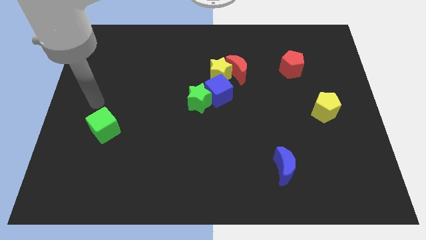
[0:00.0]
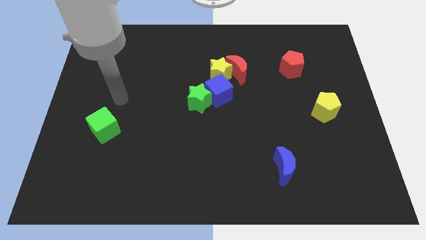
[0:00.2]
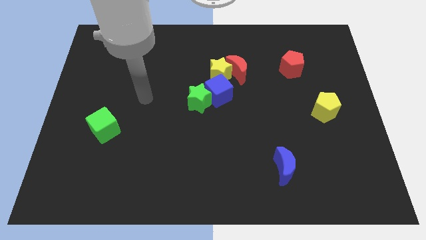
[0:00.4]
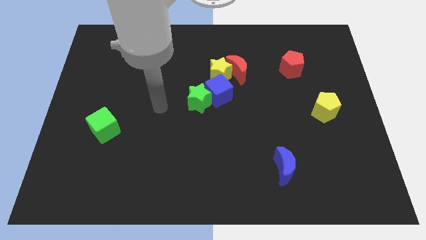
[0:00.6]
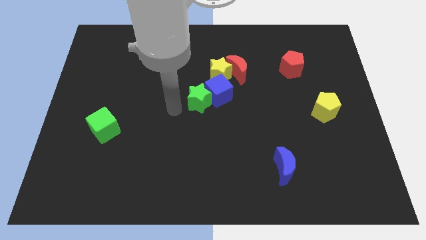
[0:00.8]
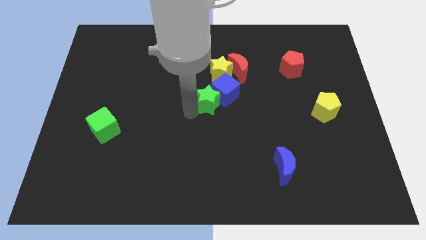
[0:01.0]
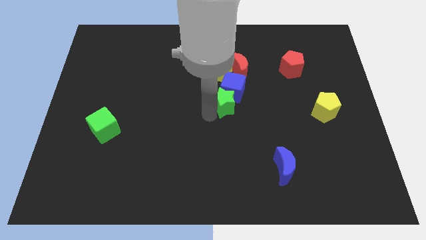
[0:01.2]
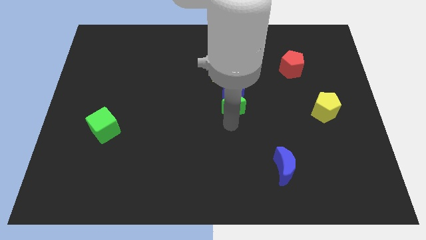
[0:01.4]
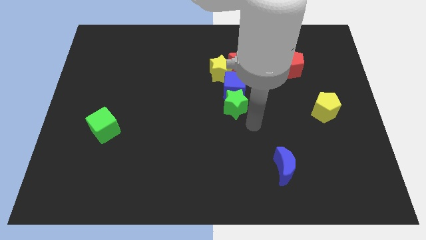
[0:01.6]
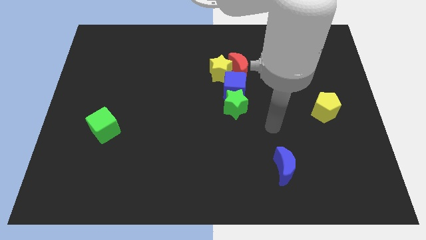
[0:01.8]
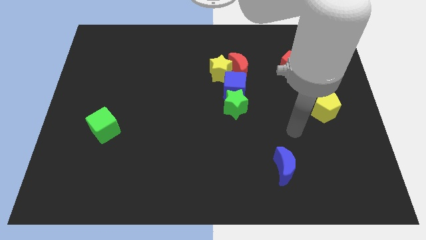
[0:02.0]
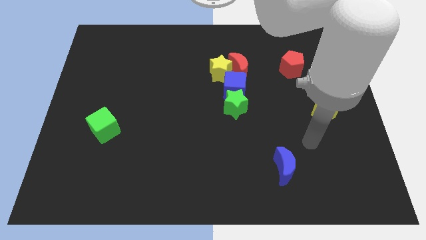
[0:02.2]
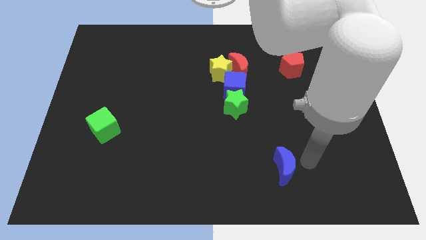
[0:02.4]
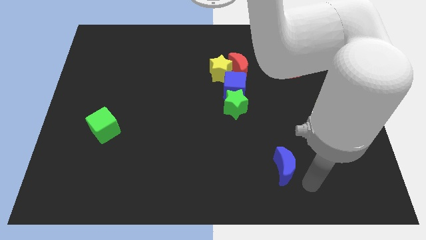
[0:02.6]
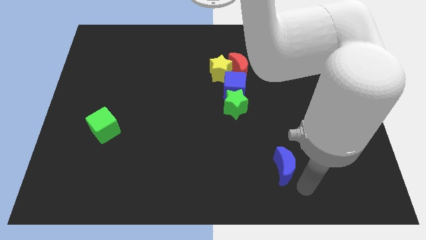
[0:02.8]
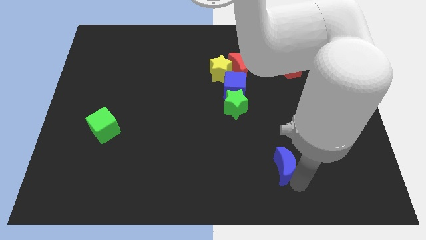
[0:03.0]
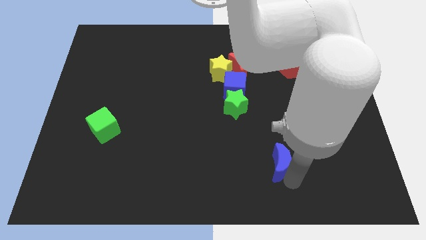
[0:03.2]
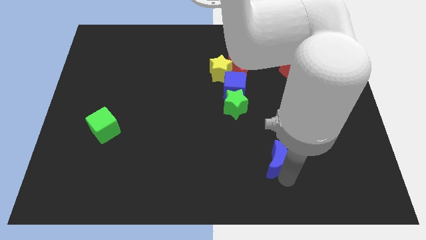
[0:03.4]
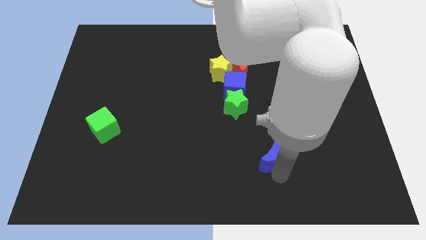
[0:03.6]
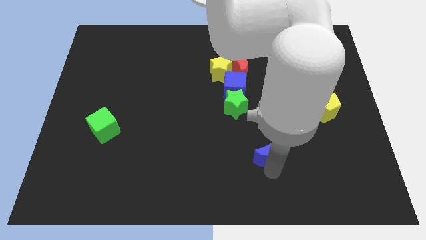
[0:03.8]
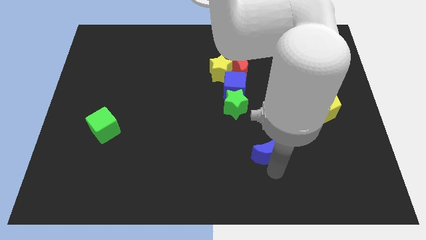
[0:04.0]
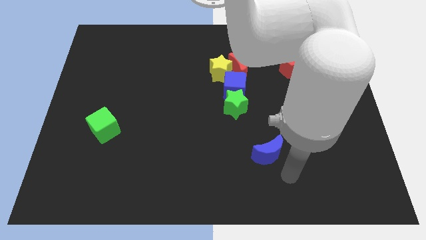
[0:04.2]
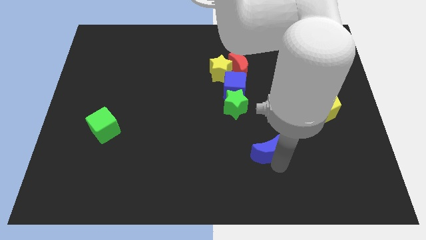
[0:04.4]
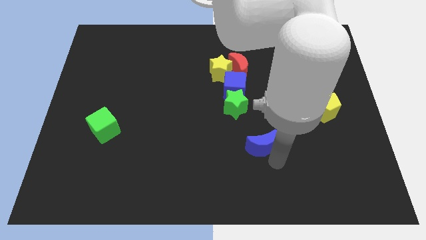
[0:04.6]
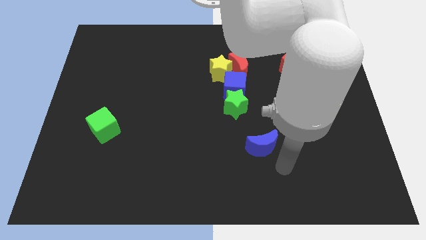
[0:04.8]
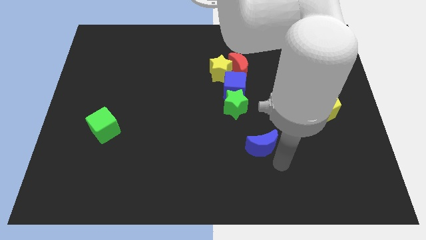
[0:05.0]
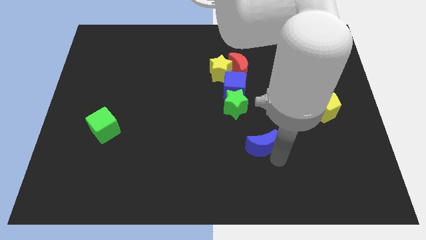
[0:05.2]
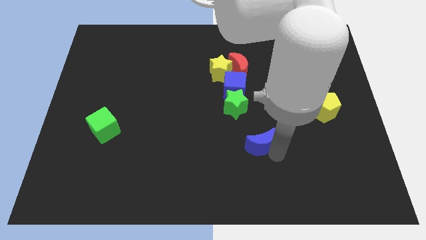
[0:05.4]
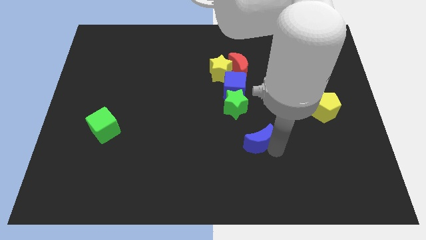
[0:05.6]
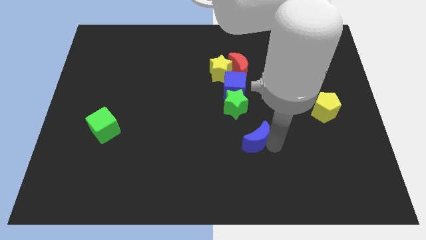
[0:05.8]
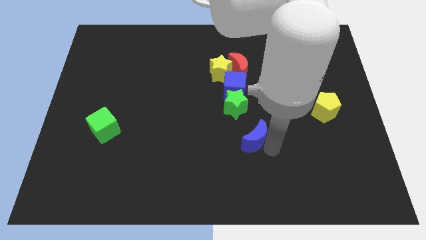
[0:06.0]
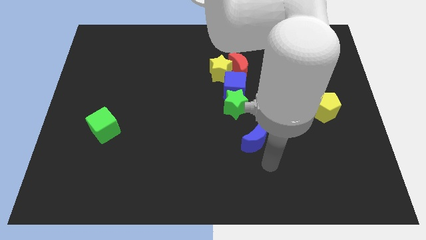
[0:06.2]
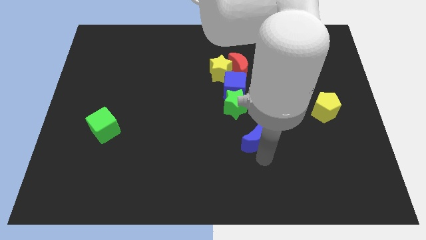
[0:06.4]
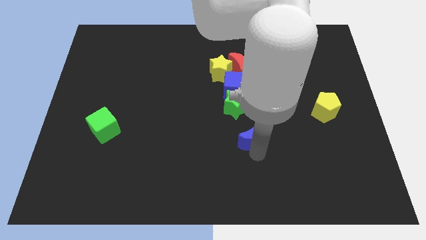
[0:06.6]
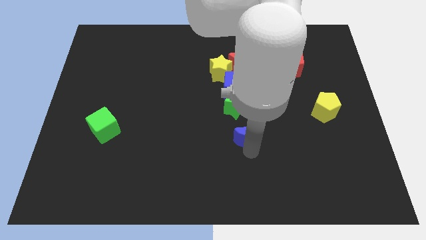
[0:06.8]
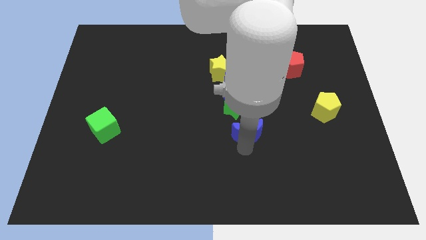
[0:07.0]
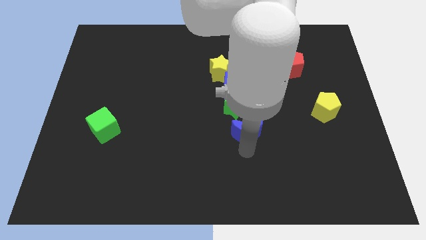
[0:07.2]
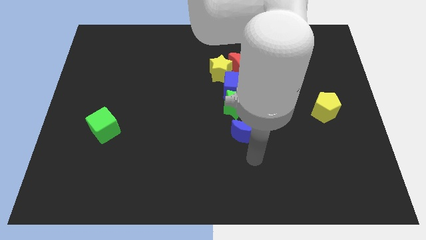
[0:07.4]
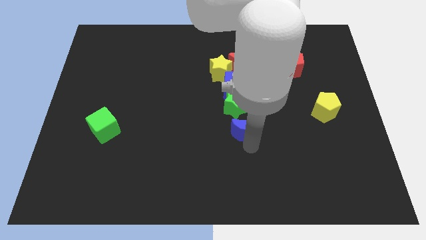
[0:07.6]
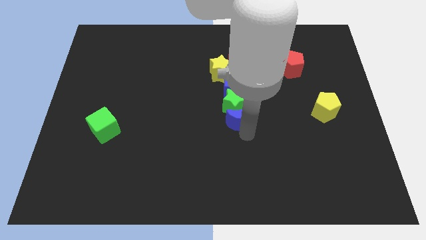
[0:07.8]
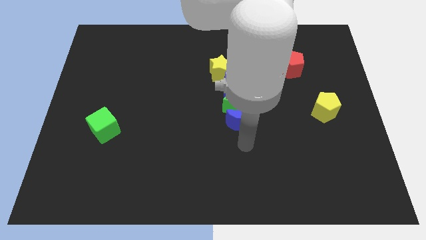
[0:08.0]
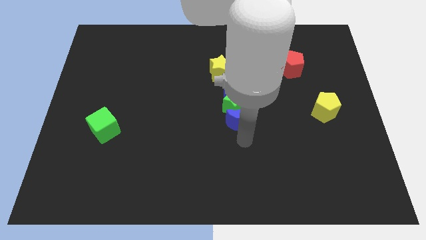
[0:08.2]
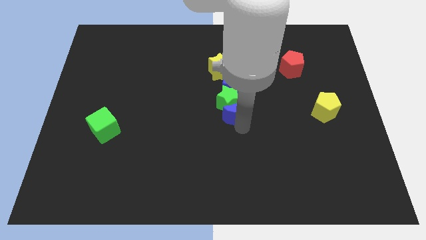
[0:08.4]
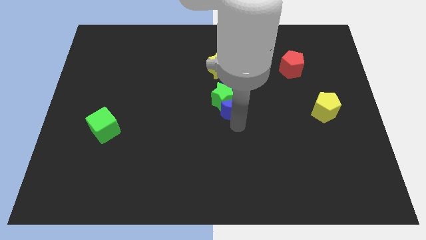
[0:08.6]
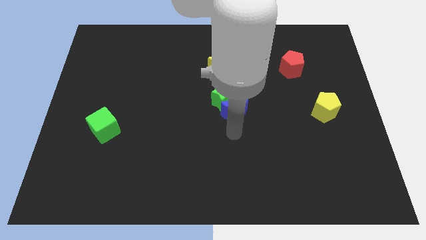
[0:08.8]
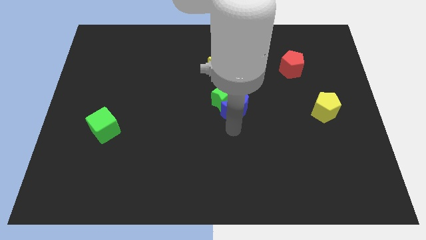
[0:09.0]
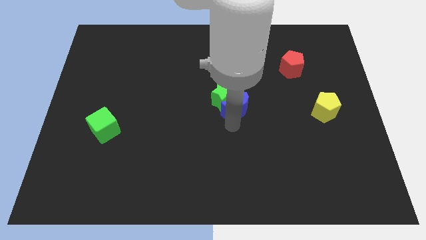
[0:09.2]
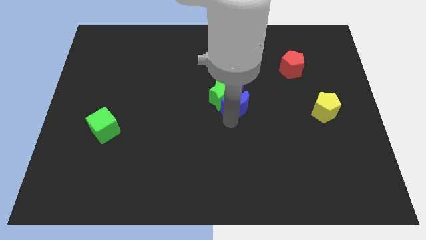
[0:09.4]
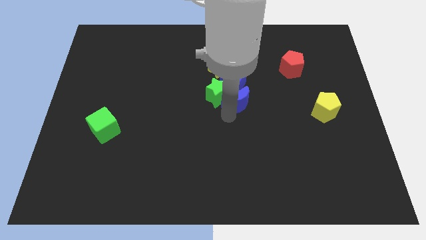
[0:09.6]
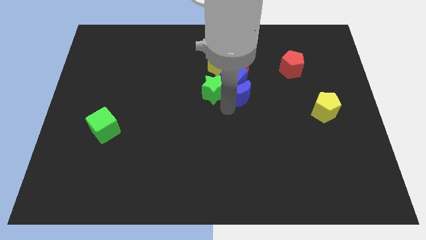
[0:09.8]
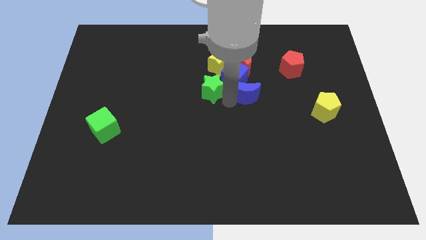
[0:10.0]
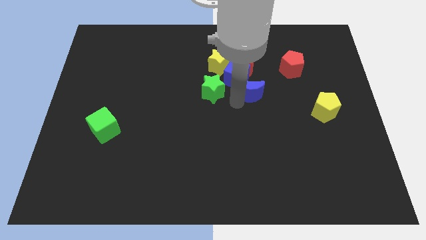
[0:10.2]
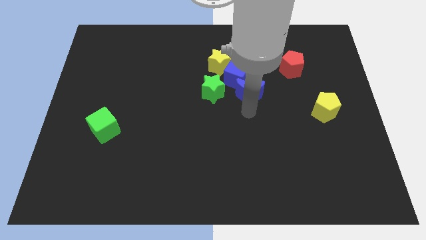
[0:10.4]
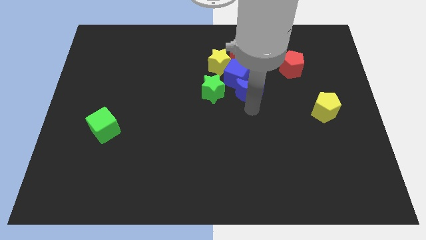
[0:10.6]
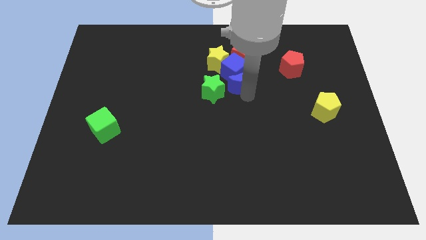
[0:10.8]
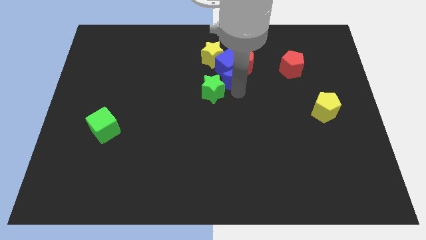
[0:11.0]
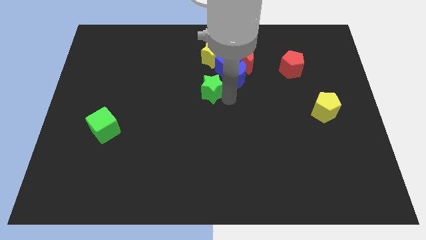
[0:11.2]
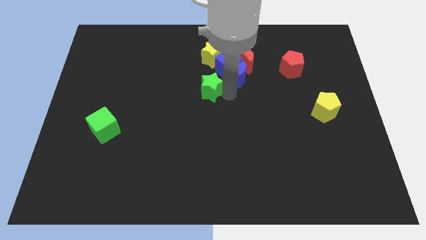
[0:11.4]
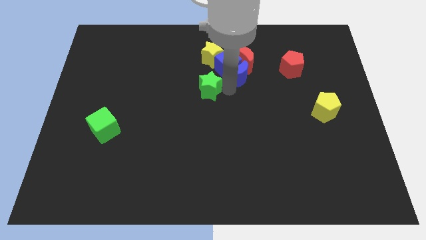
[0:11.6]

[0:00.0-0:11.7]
push the blue moon next to the red moon

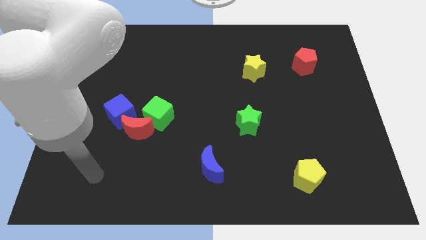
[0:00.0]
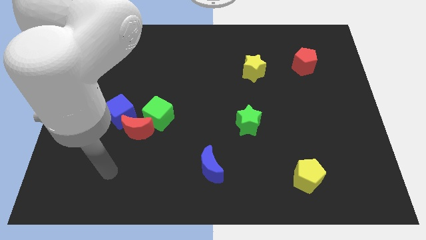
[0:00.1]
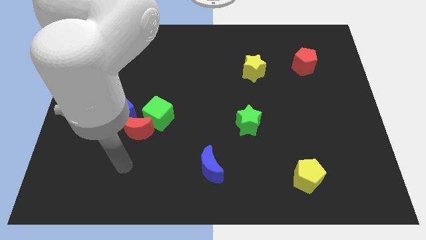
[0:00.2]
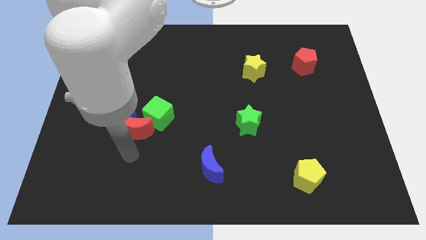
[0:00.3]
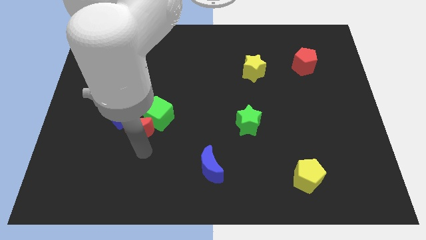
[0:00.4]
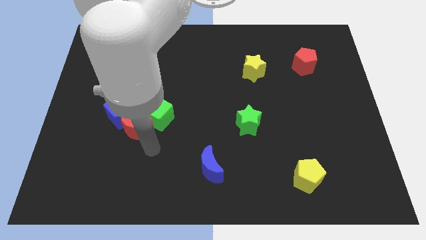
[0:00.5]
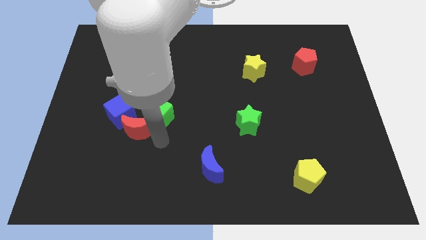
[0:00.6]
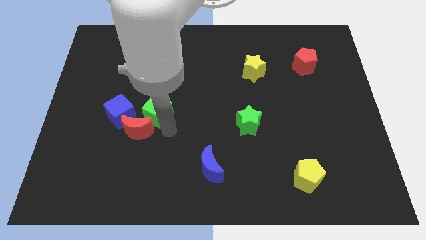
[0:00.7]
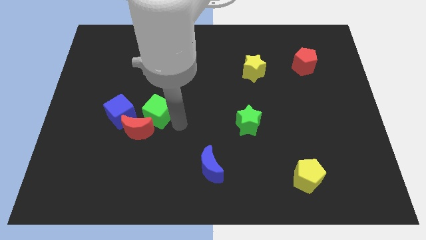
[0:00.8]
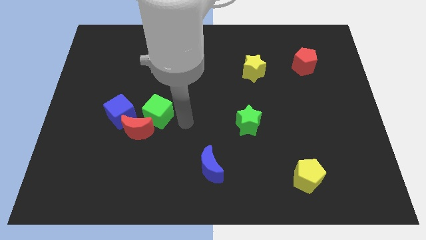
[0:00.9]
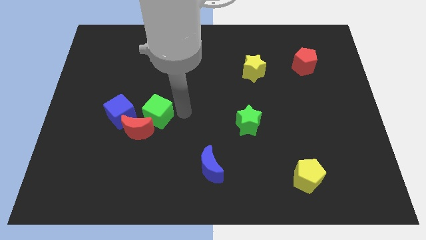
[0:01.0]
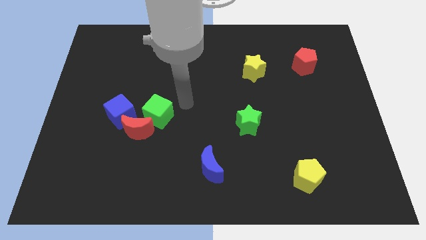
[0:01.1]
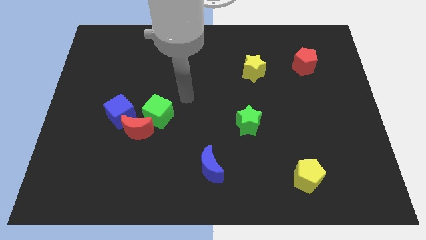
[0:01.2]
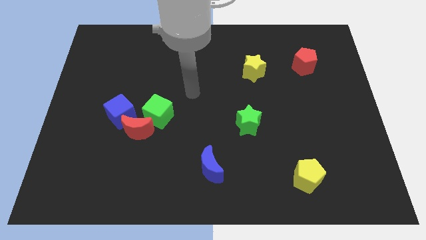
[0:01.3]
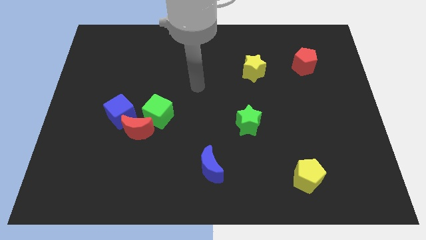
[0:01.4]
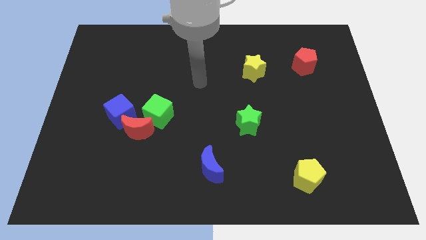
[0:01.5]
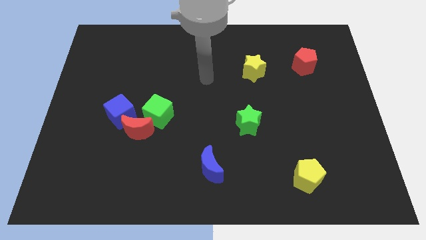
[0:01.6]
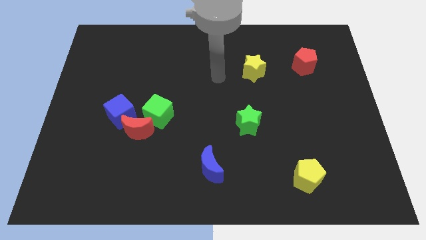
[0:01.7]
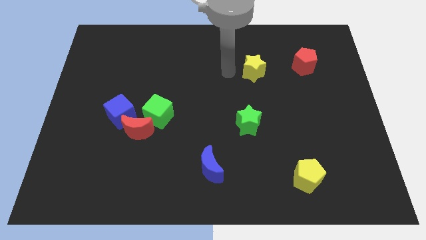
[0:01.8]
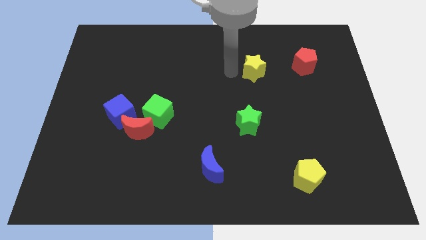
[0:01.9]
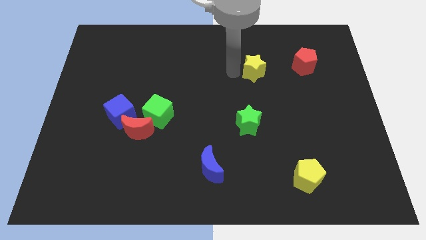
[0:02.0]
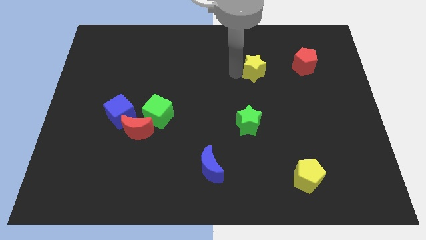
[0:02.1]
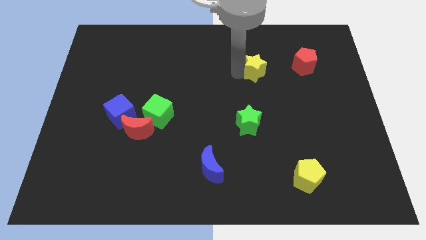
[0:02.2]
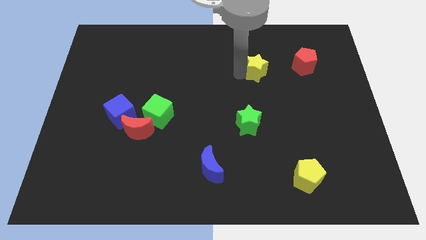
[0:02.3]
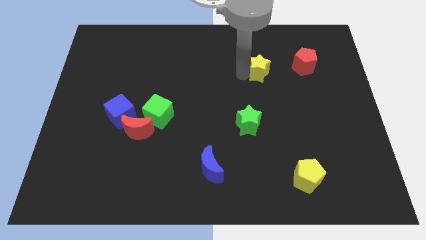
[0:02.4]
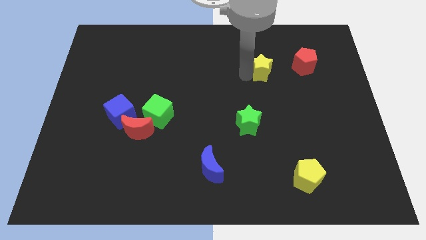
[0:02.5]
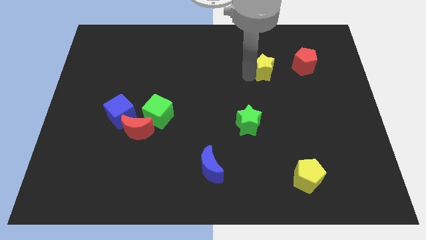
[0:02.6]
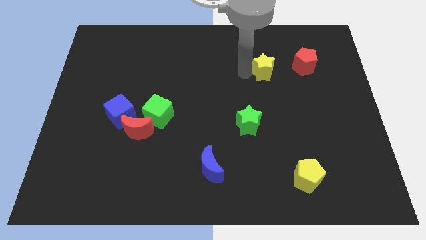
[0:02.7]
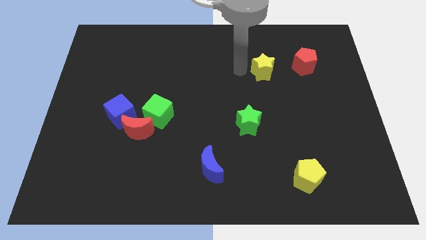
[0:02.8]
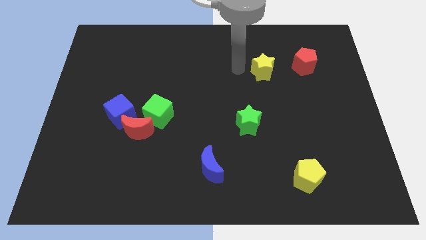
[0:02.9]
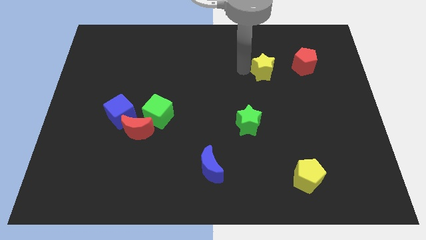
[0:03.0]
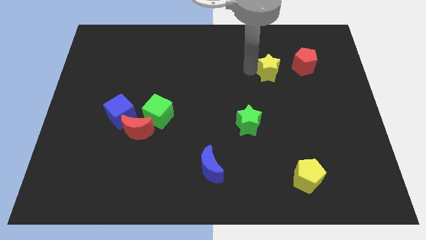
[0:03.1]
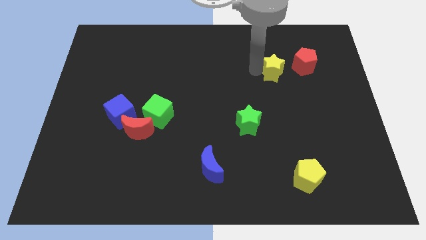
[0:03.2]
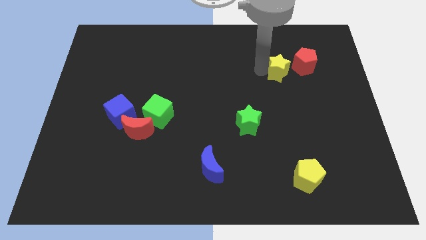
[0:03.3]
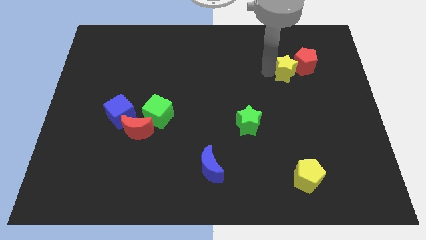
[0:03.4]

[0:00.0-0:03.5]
slide the yellow star next to the red pentagon
